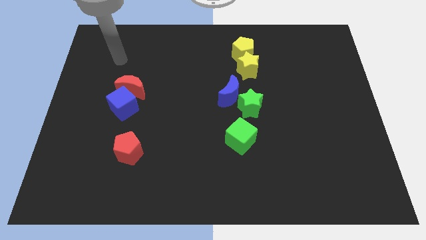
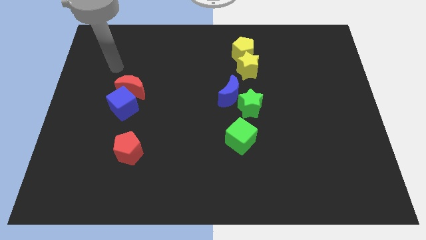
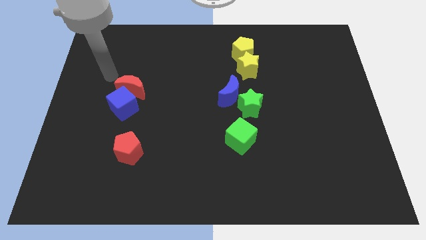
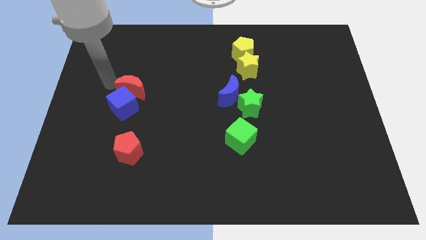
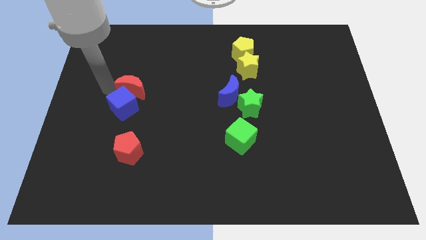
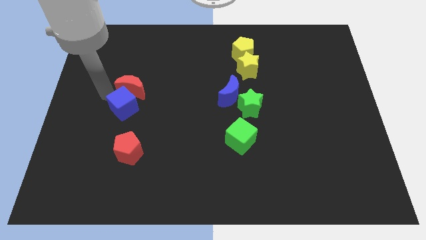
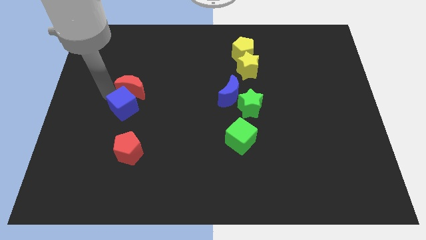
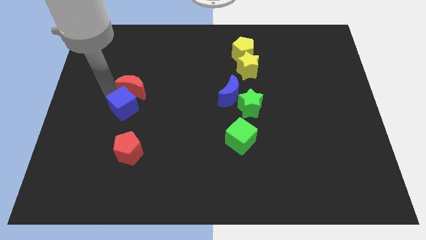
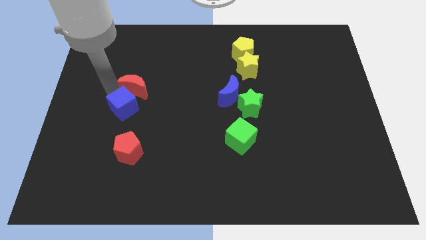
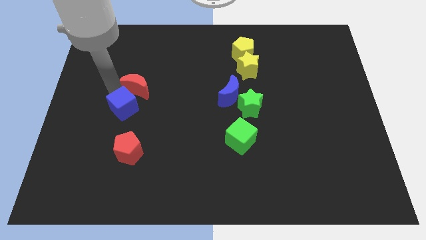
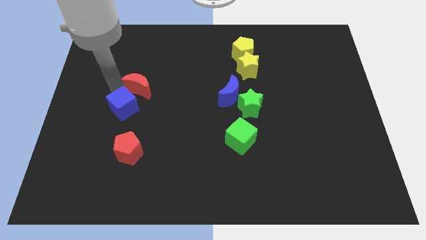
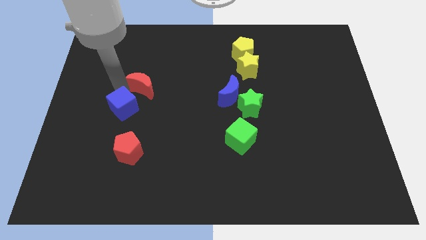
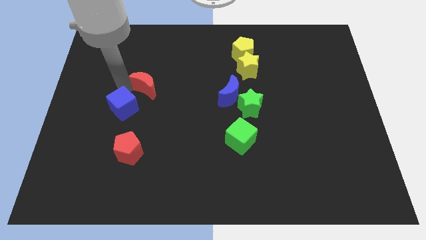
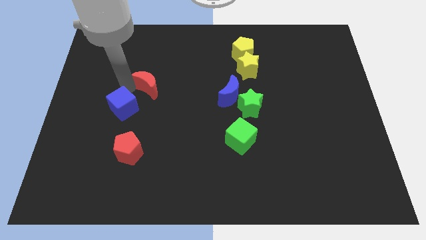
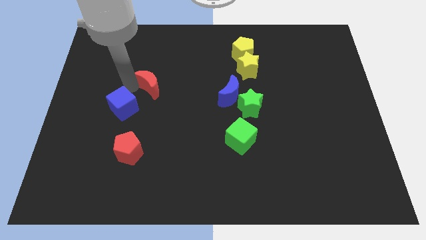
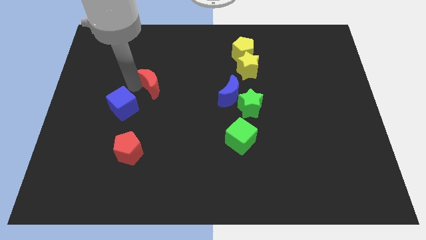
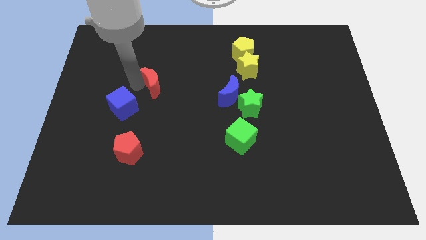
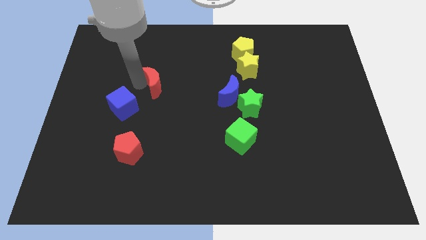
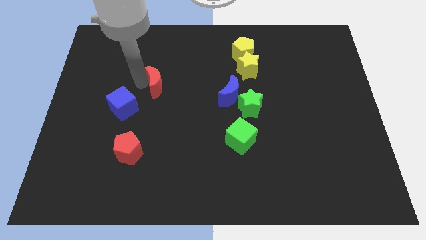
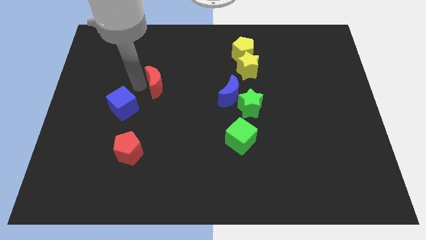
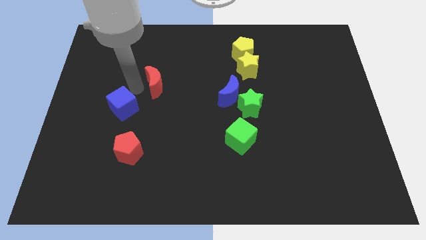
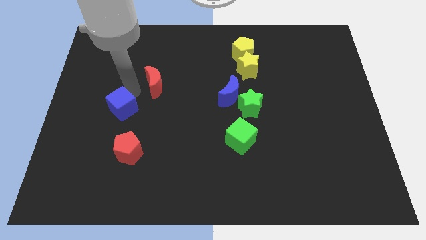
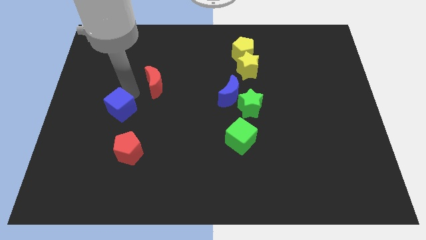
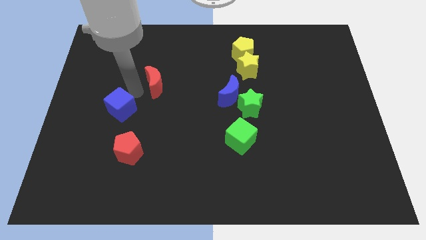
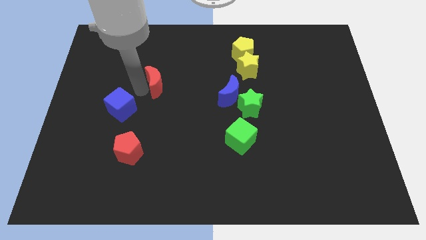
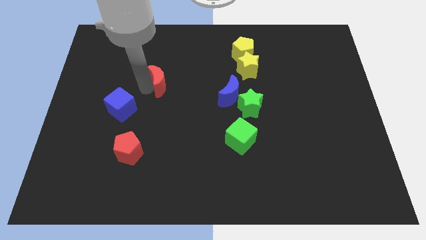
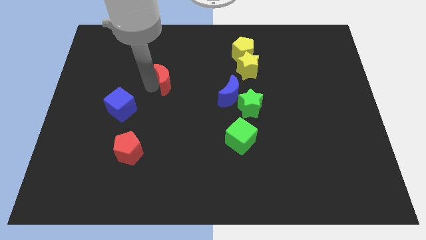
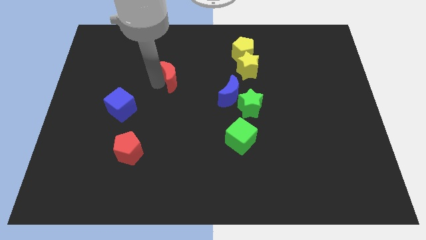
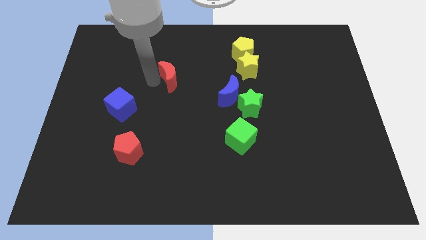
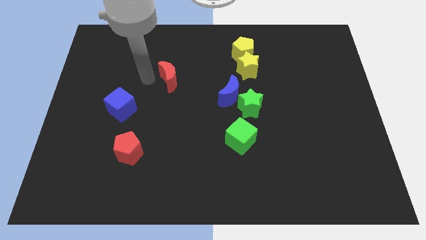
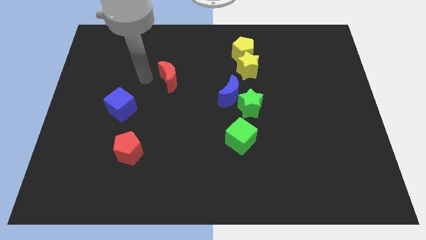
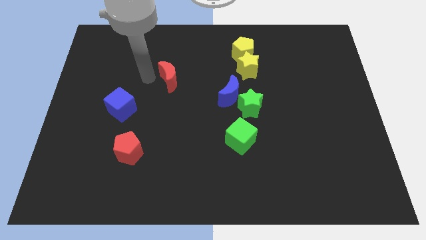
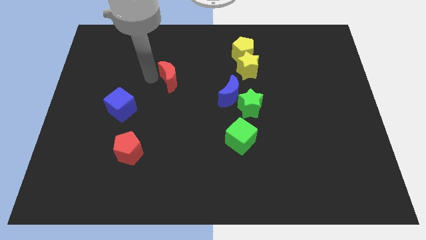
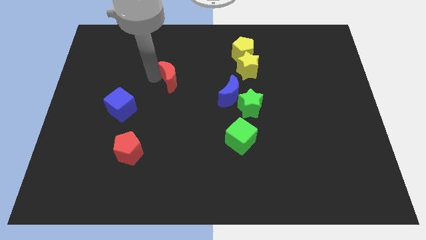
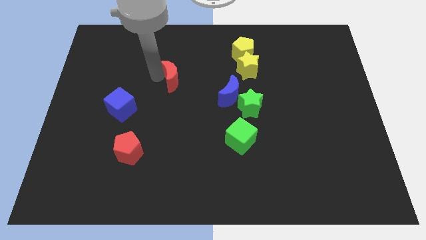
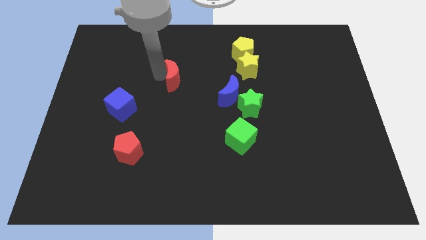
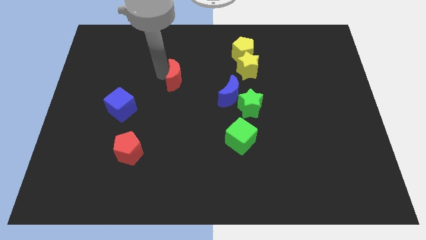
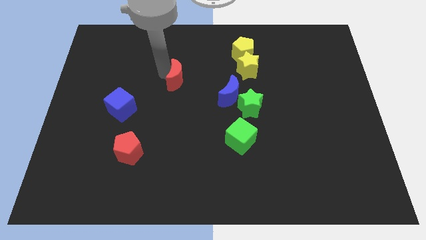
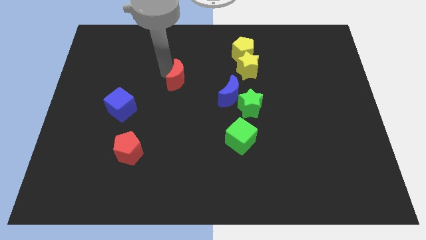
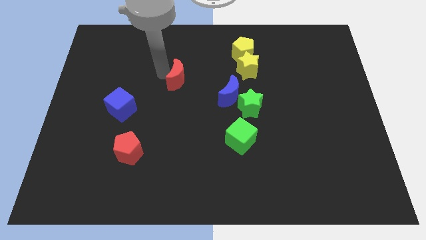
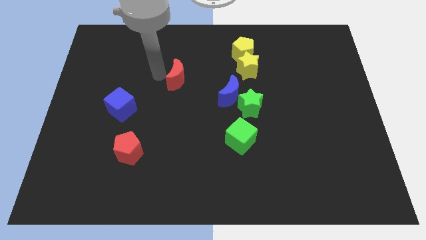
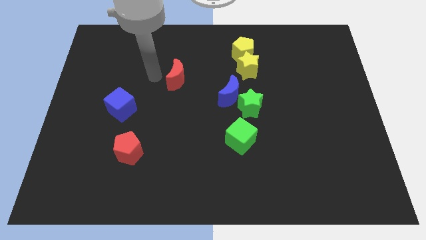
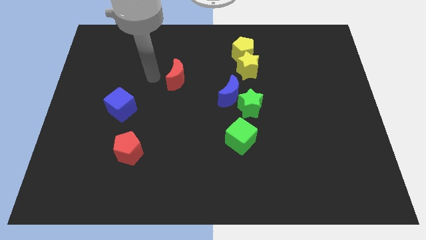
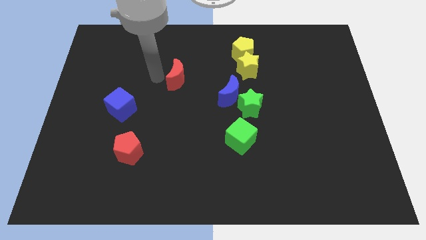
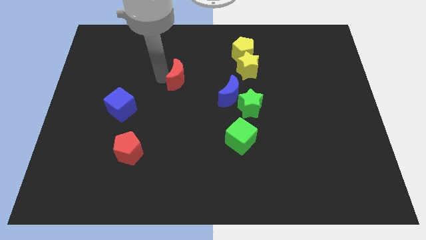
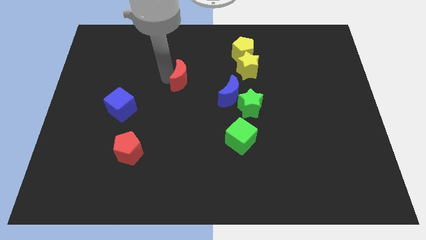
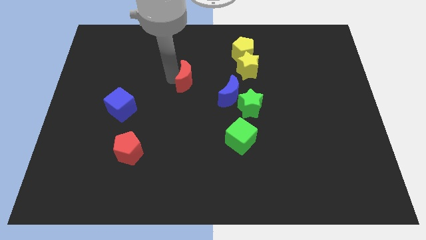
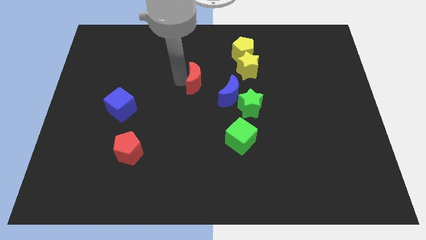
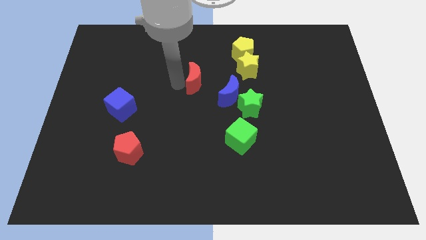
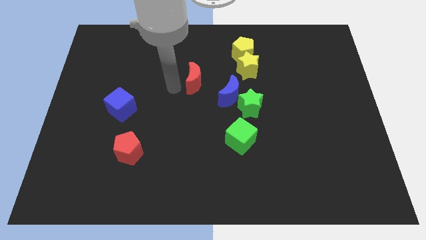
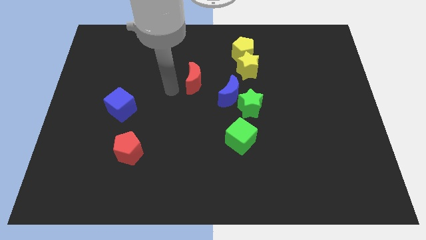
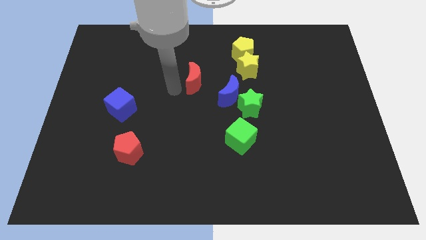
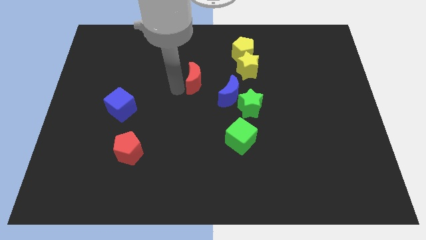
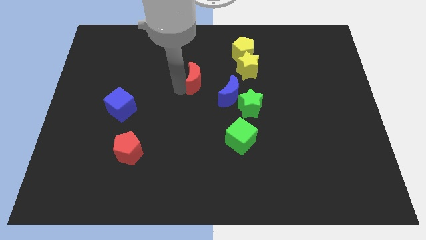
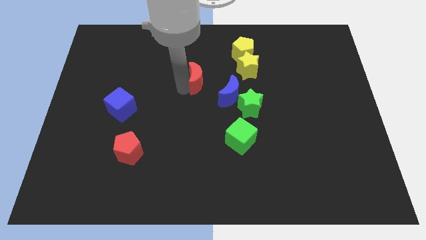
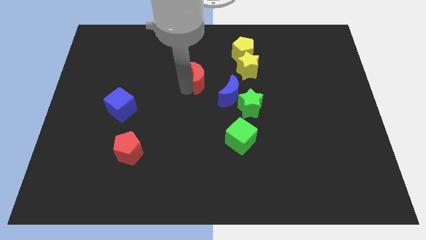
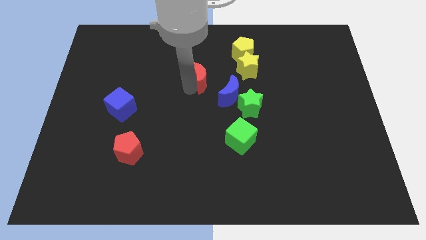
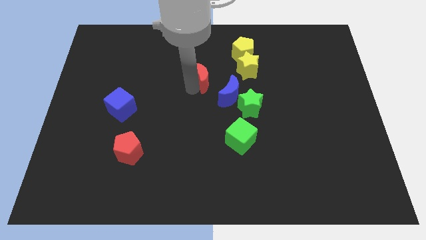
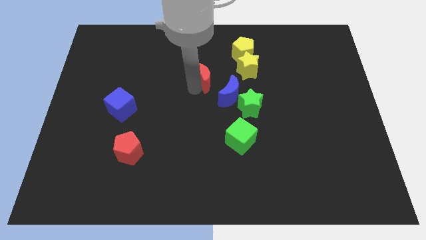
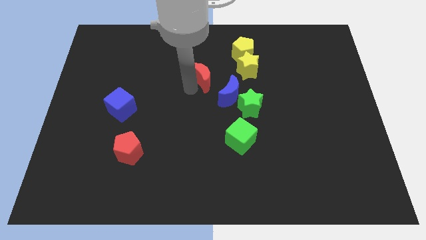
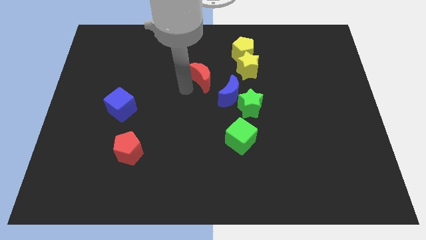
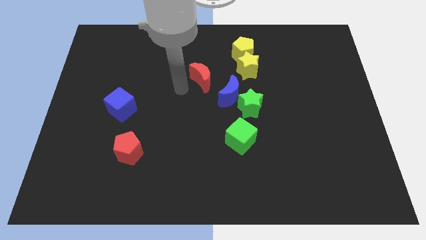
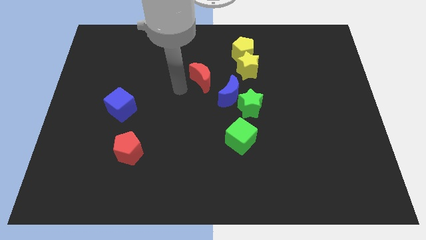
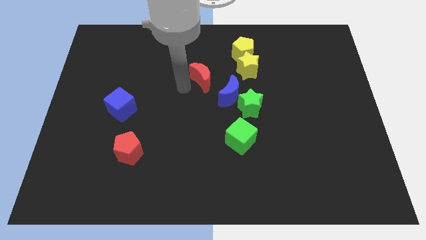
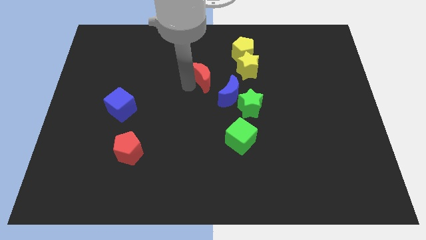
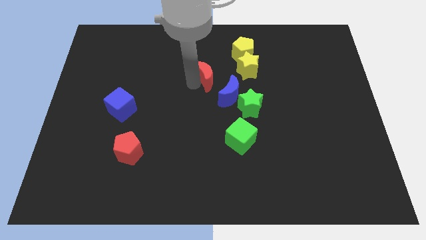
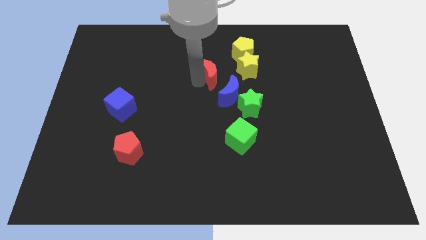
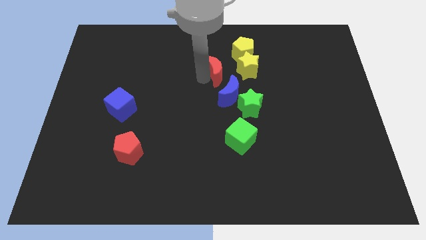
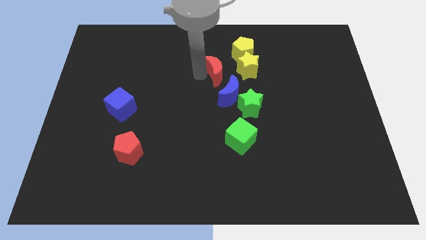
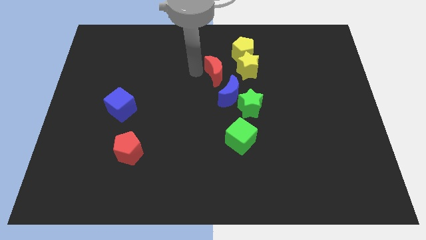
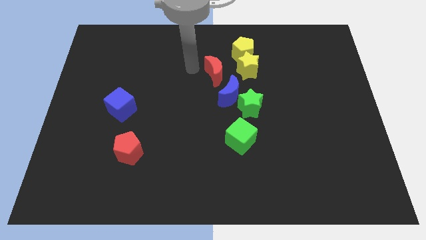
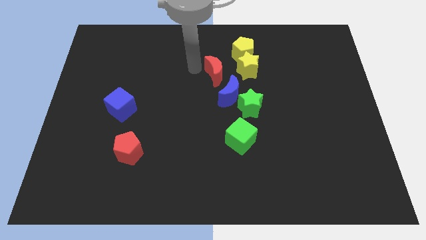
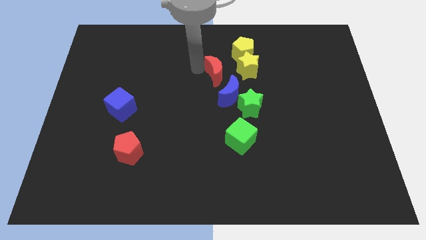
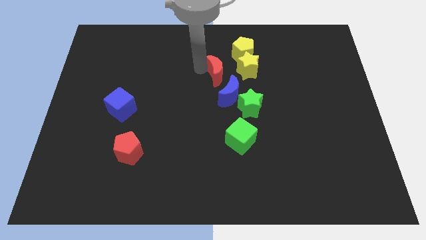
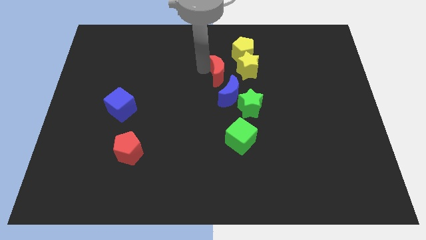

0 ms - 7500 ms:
slide the red moon right

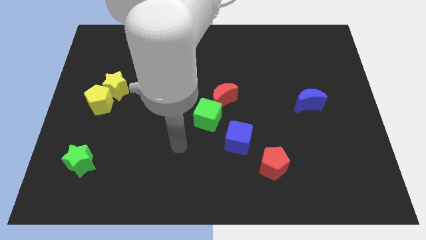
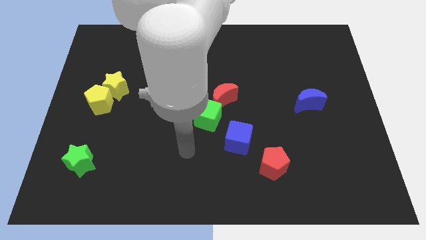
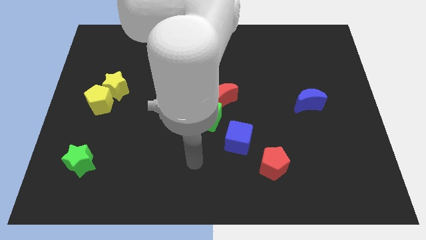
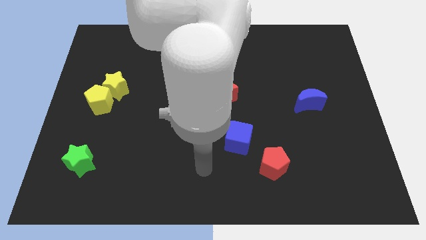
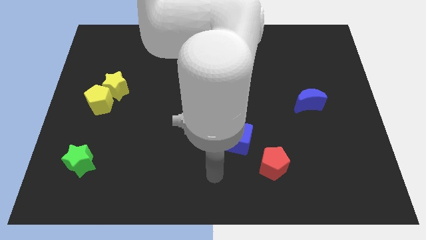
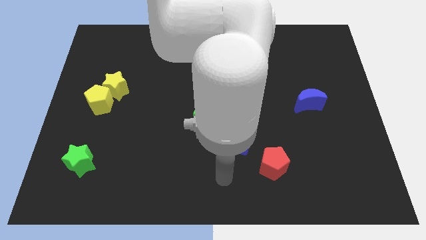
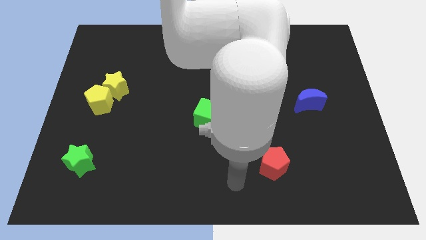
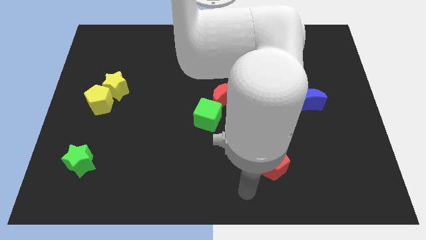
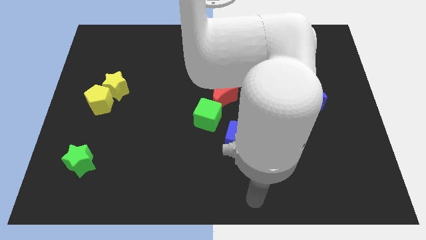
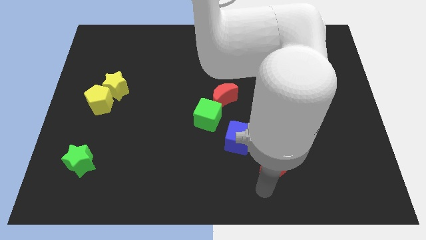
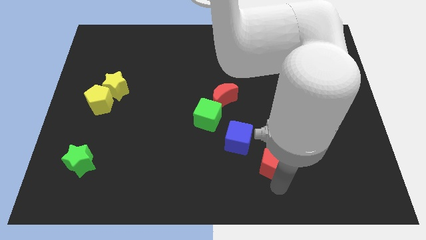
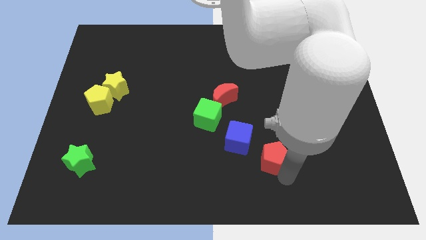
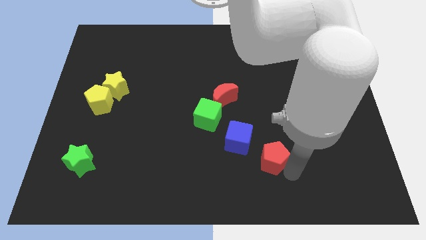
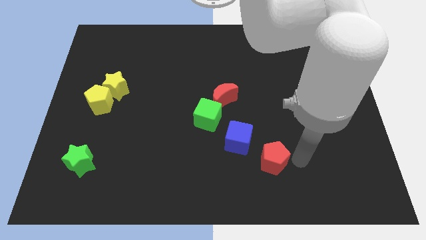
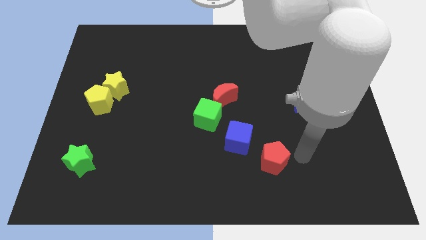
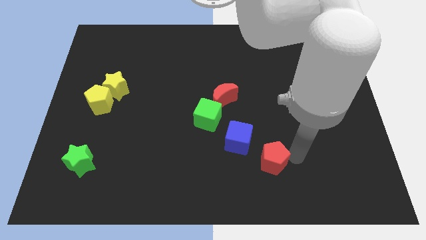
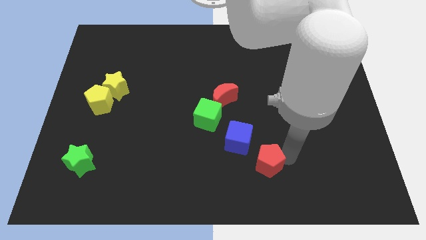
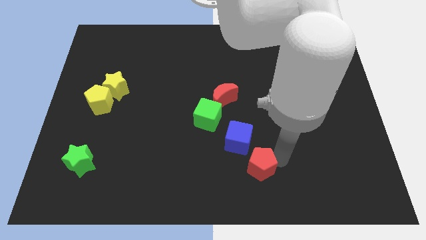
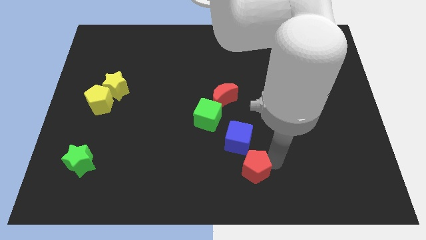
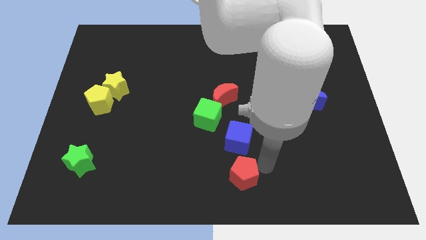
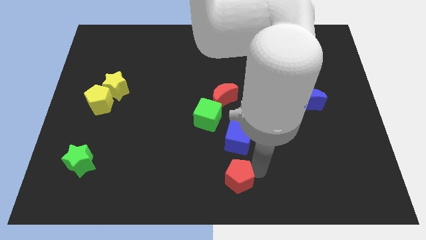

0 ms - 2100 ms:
move the red pentagon slightly to the left
